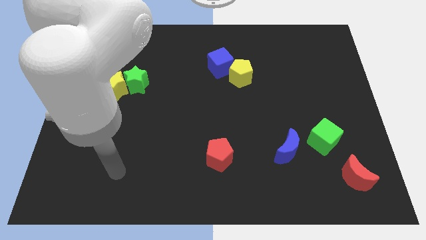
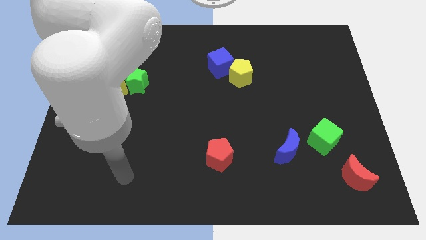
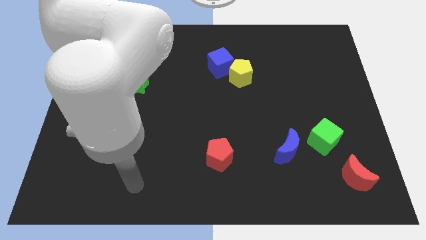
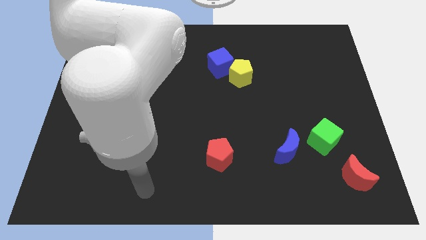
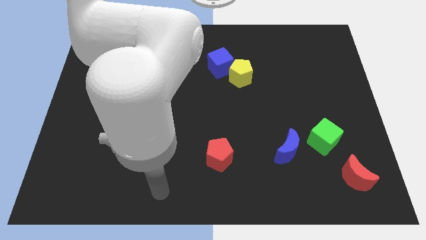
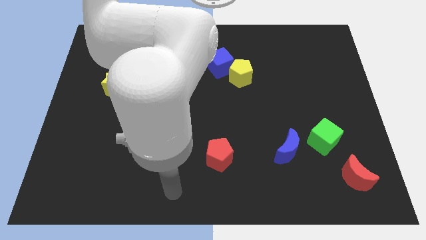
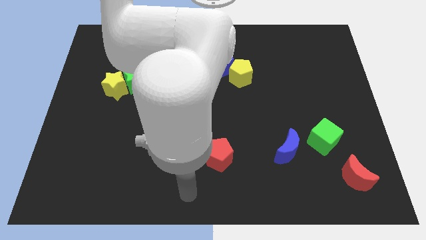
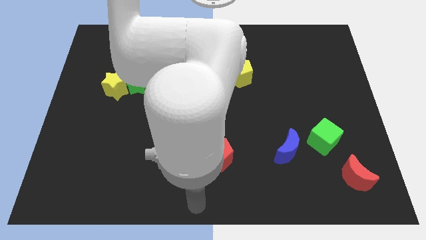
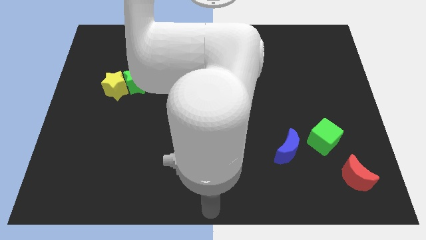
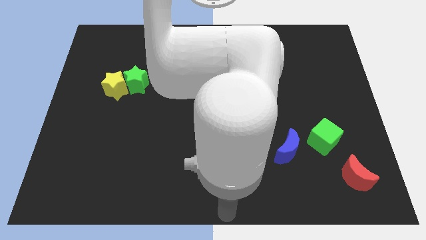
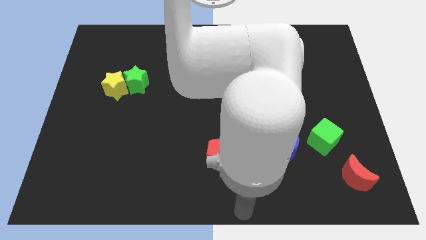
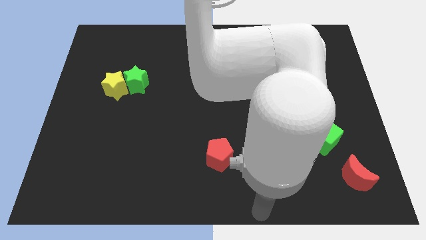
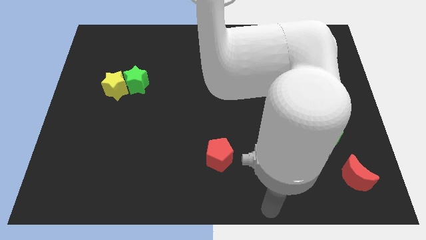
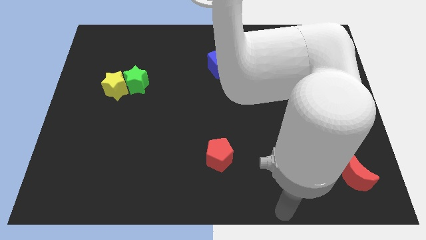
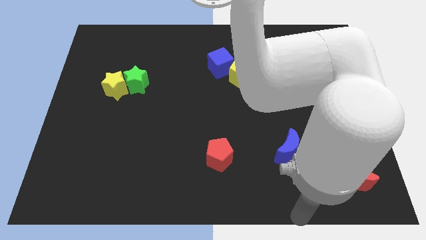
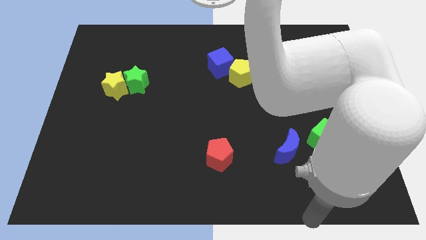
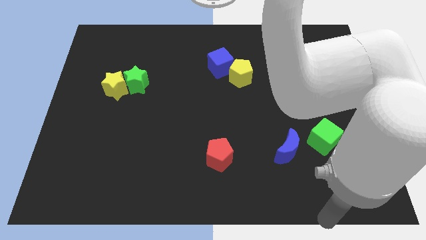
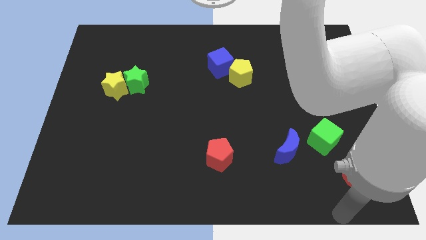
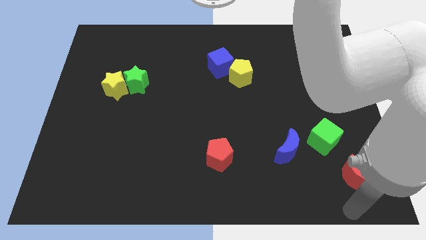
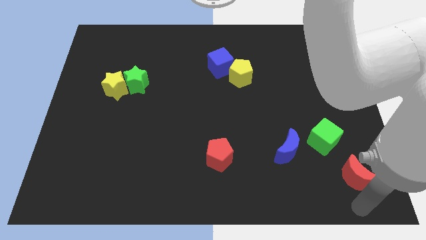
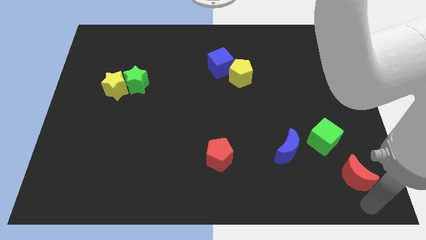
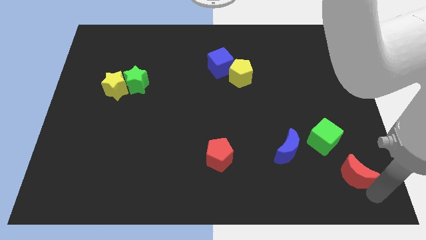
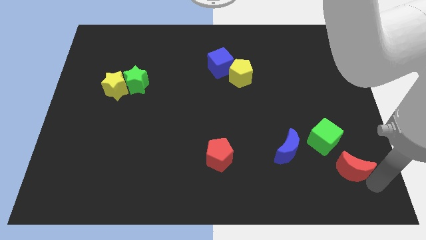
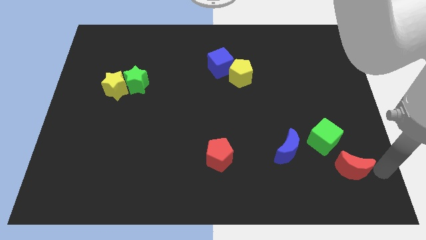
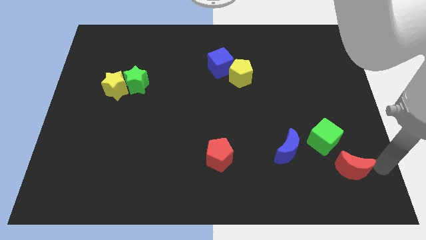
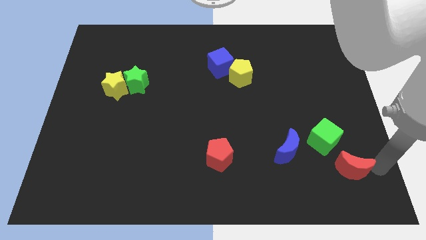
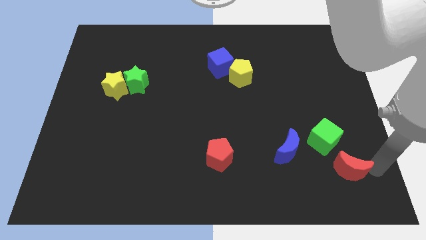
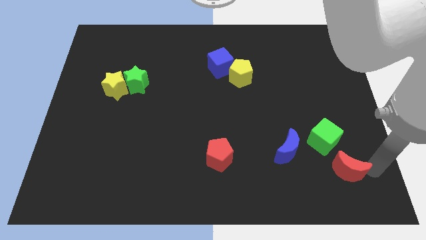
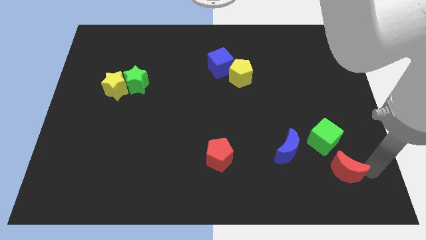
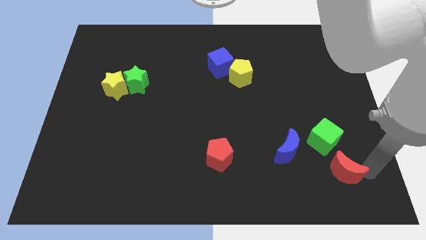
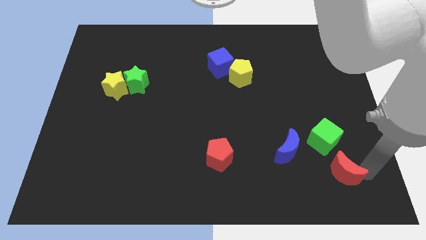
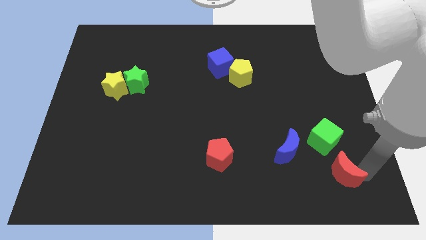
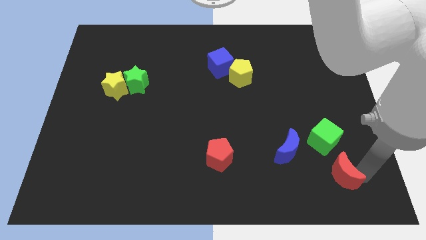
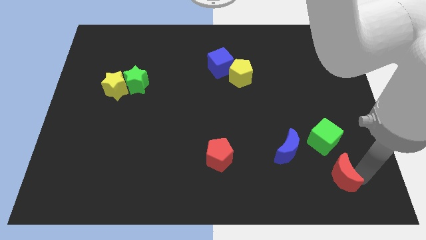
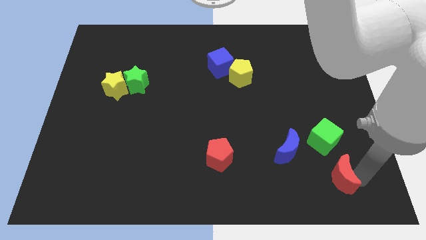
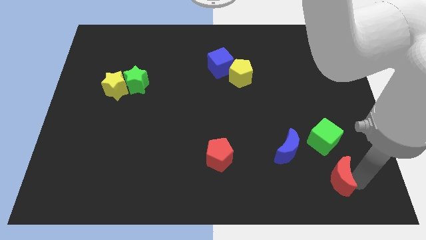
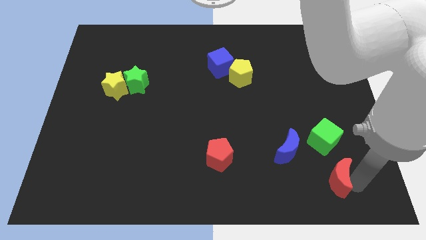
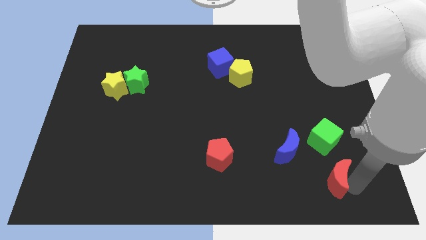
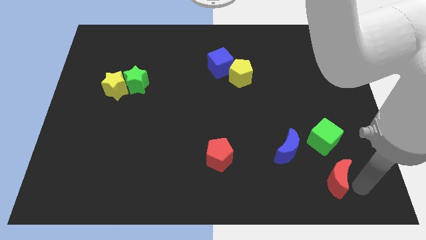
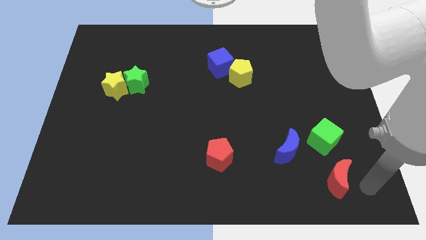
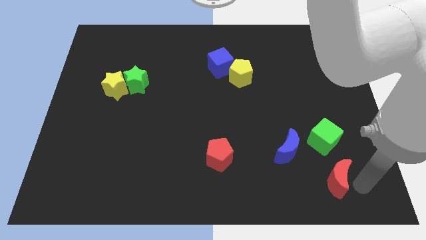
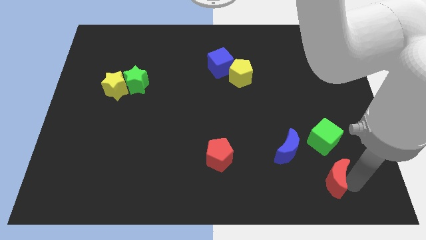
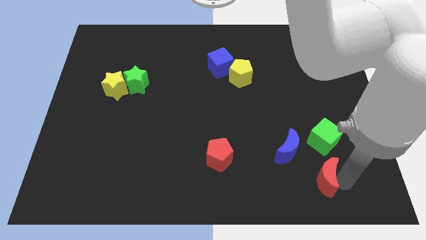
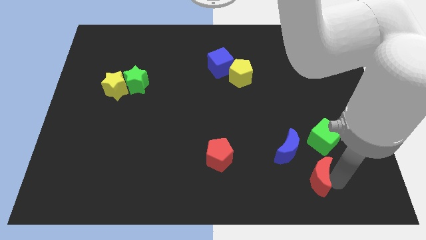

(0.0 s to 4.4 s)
slightly slide the red moon to the left

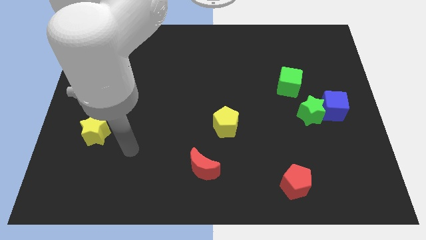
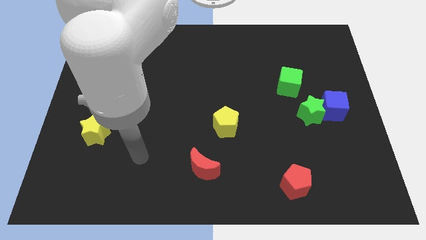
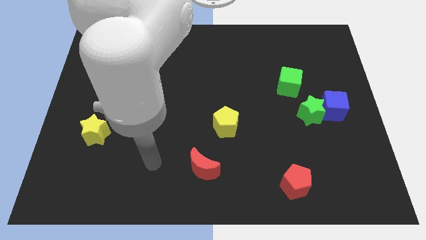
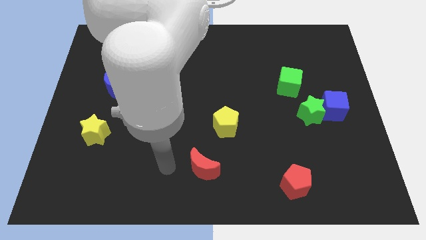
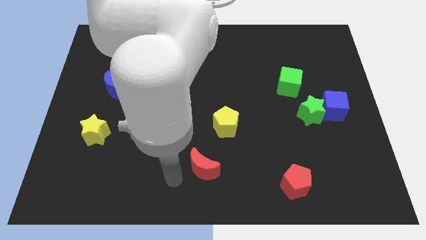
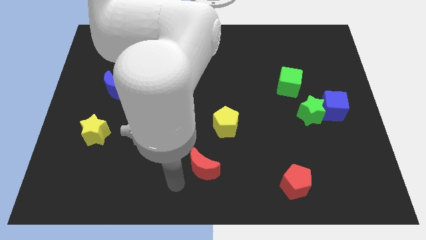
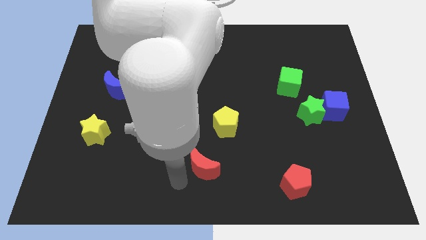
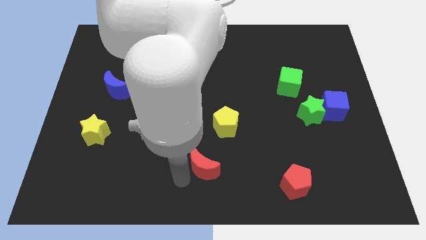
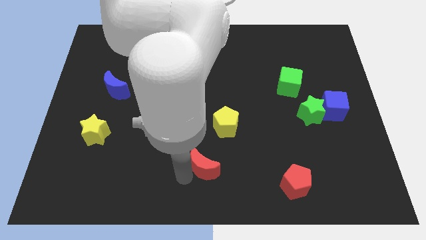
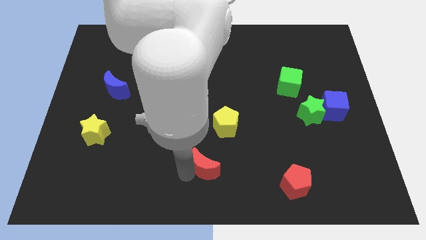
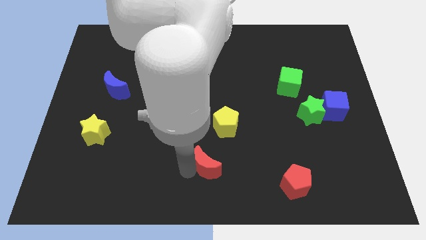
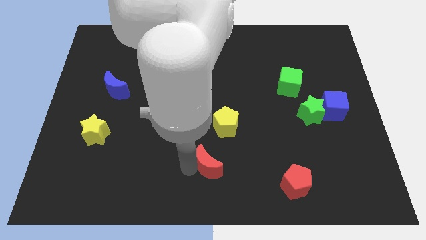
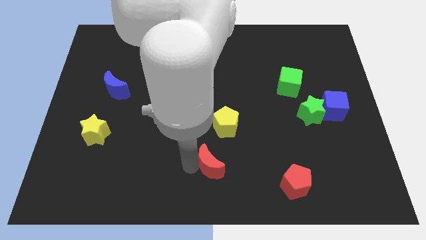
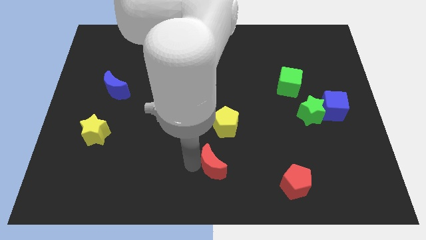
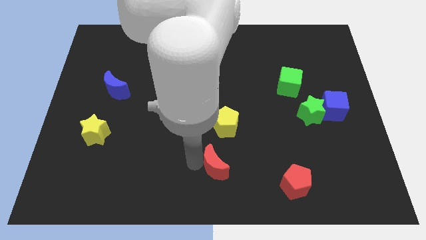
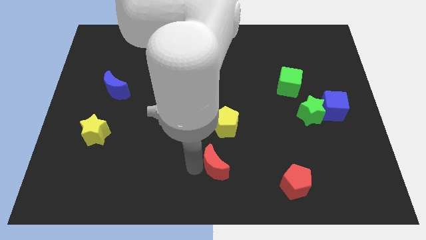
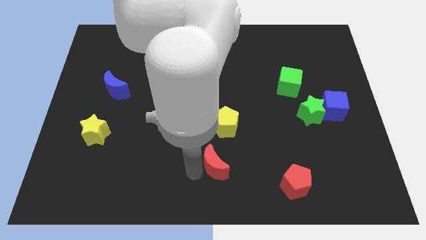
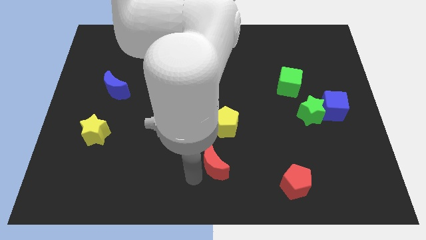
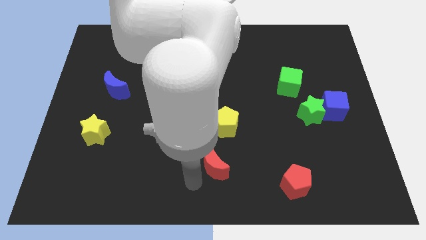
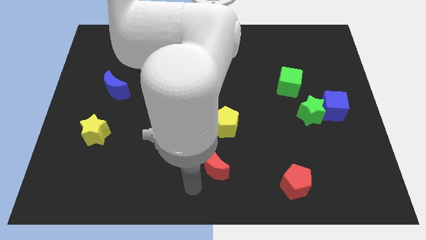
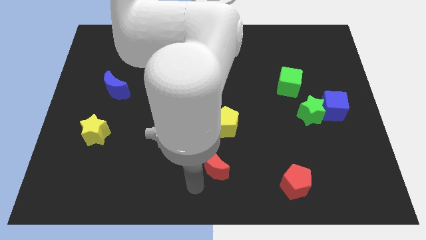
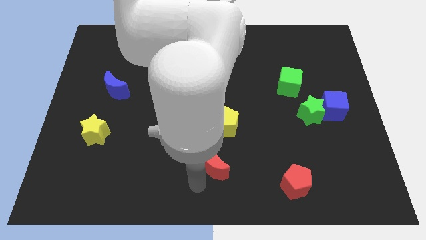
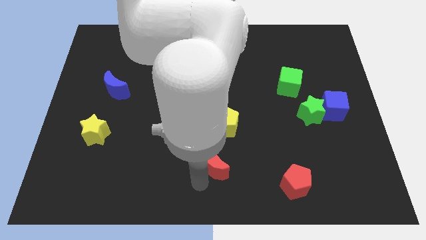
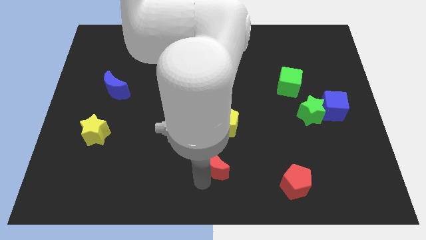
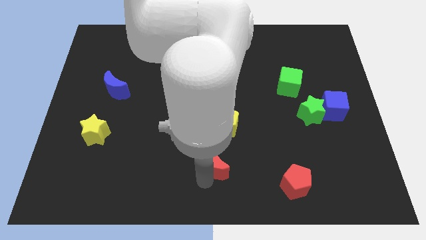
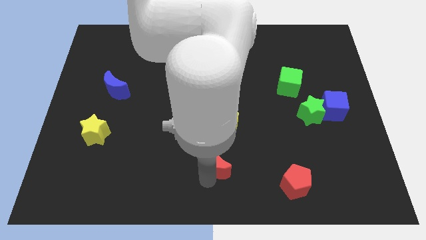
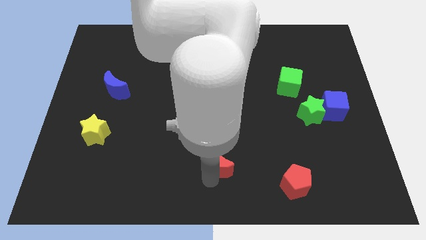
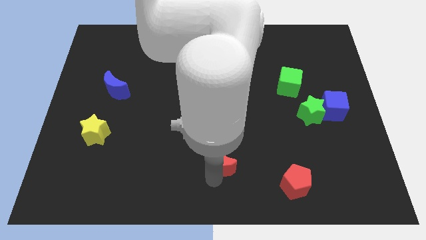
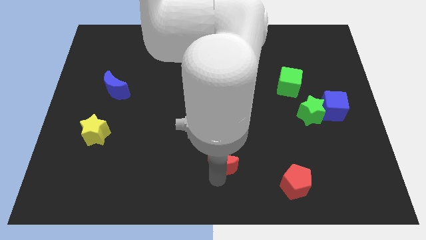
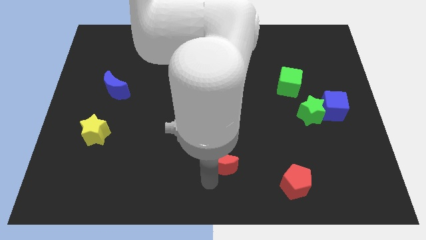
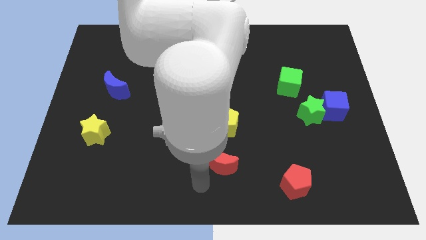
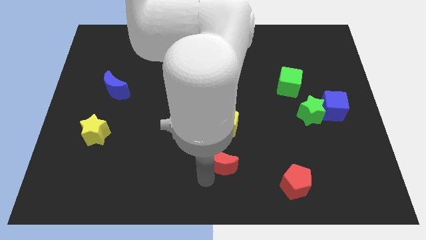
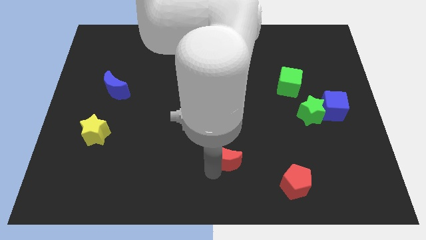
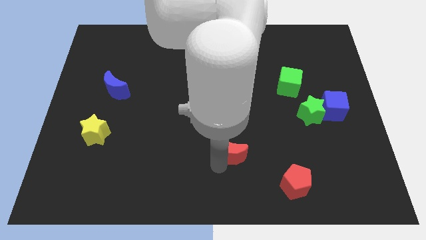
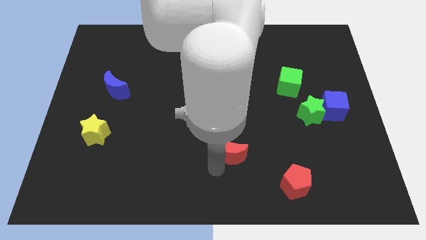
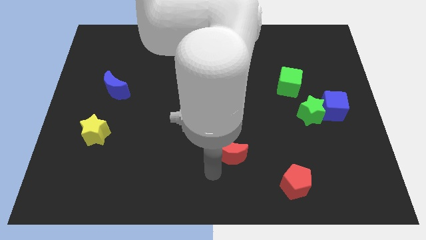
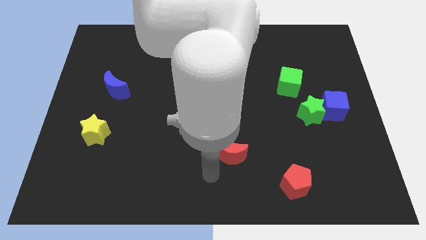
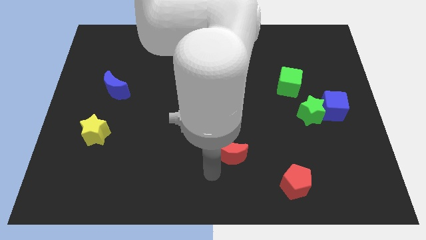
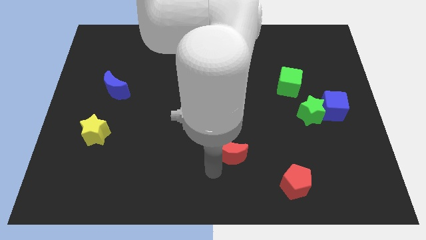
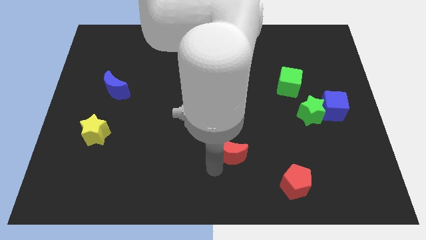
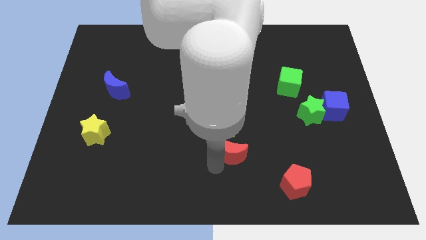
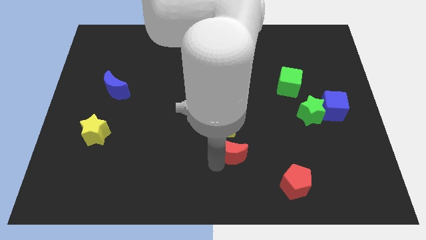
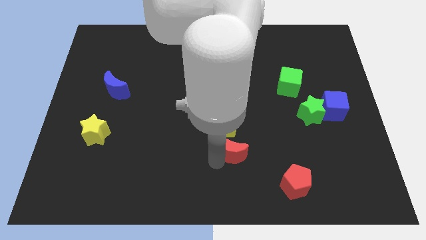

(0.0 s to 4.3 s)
push the red moon diagonally up and right slightly
